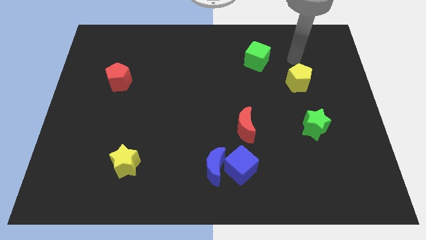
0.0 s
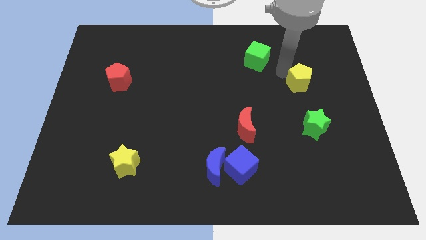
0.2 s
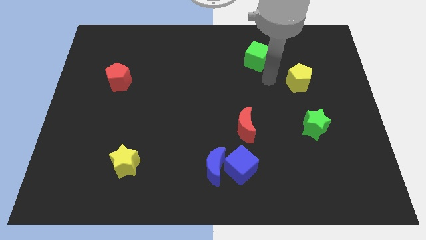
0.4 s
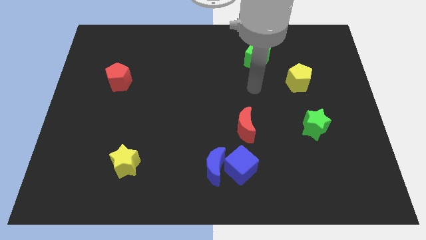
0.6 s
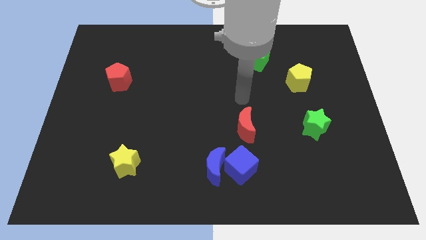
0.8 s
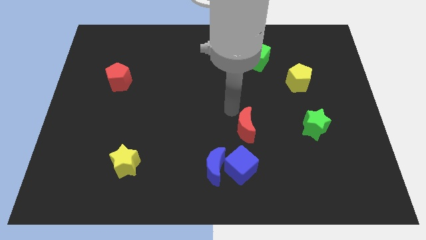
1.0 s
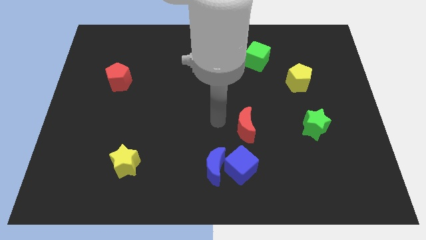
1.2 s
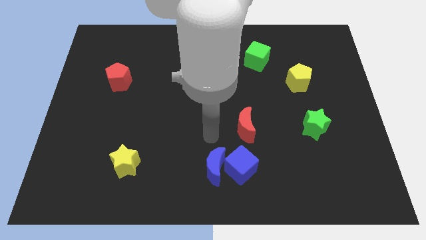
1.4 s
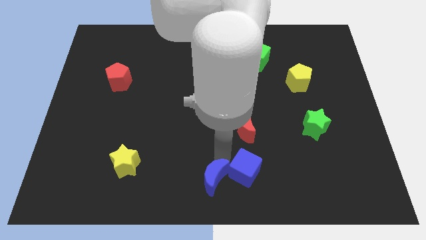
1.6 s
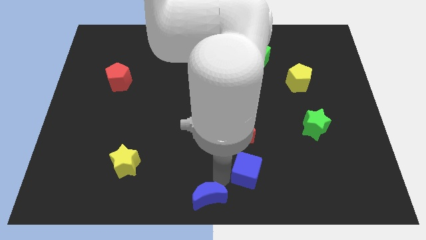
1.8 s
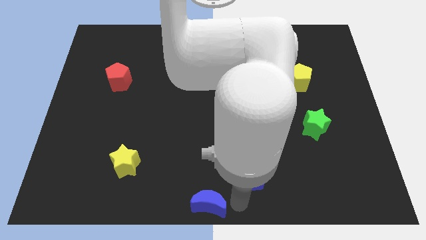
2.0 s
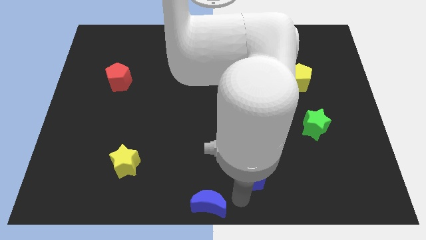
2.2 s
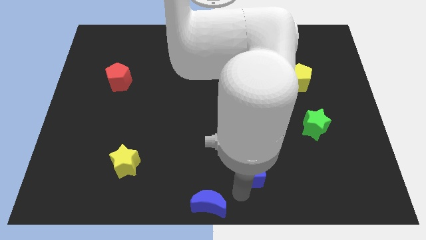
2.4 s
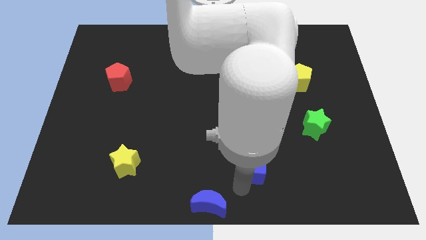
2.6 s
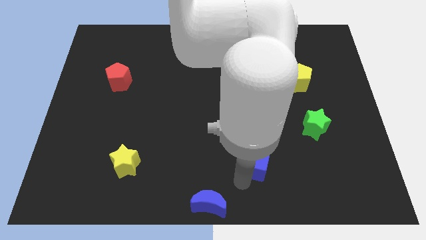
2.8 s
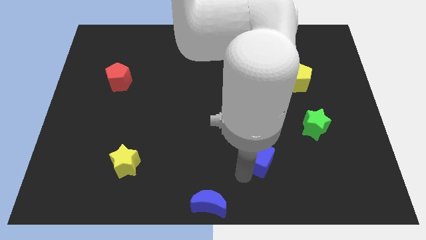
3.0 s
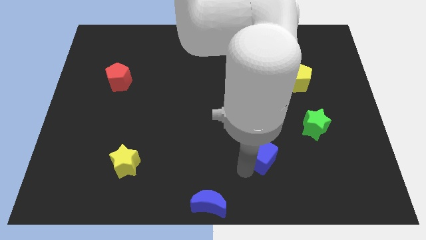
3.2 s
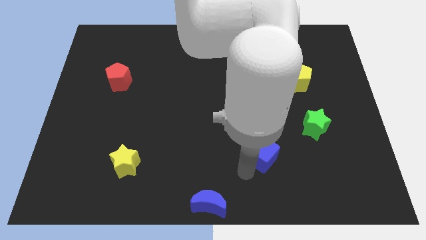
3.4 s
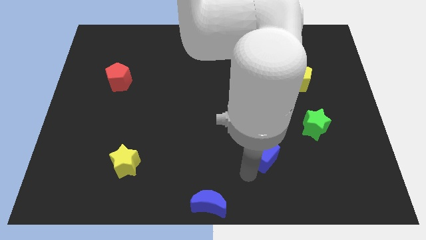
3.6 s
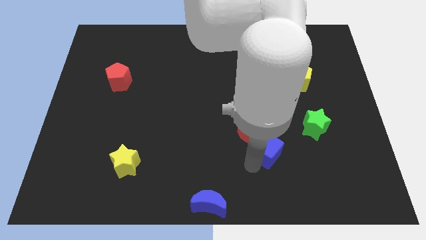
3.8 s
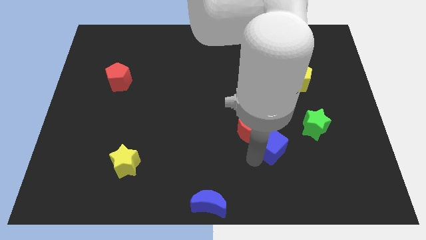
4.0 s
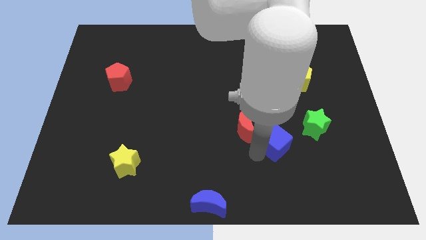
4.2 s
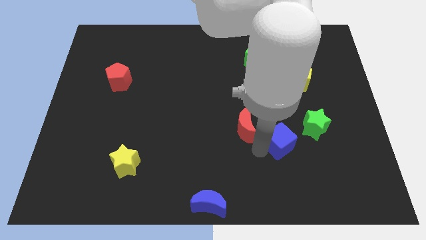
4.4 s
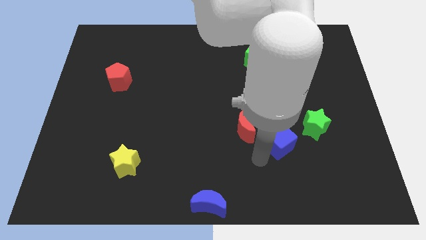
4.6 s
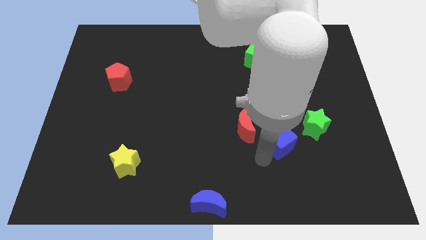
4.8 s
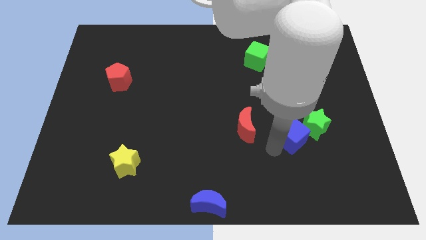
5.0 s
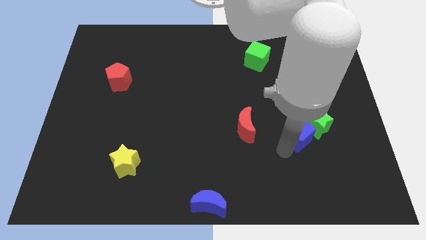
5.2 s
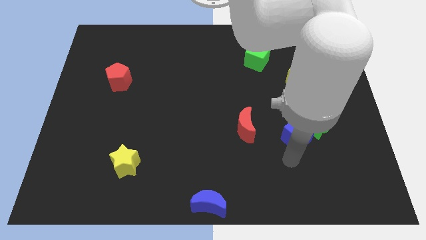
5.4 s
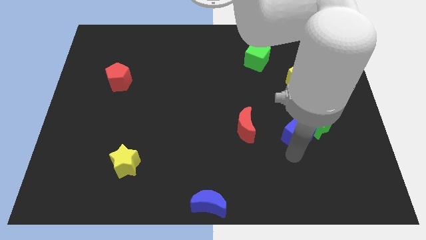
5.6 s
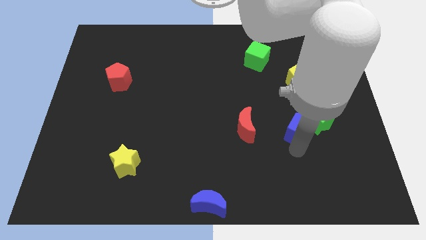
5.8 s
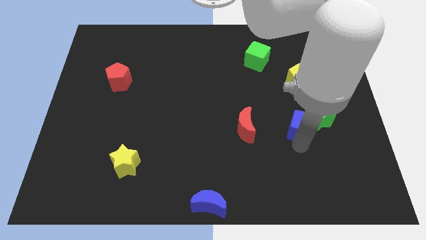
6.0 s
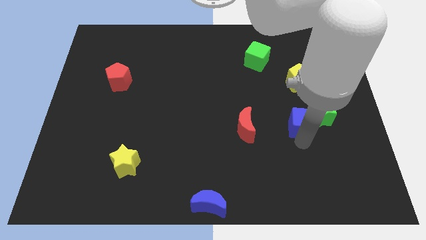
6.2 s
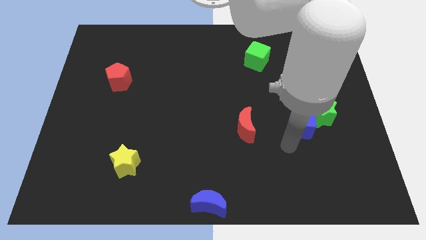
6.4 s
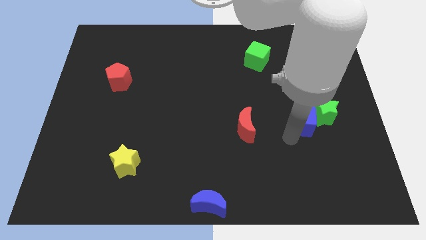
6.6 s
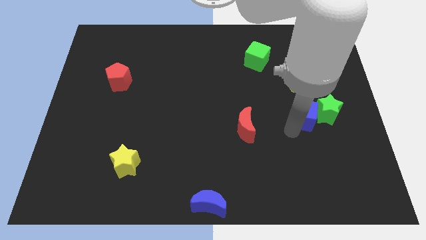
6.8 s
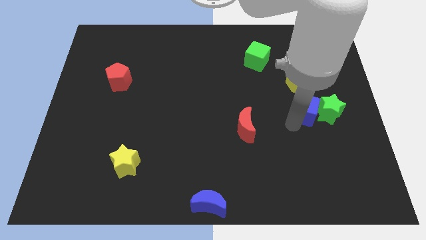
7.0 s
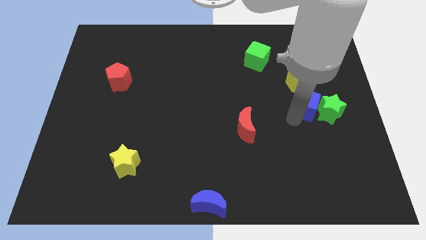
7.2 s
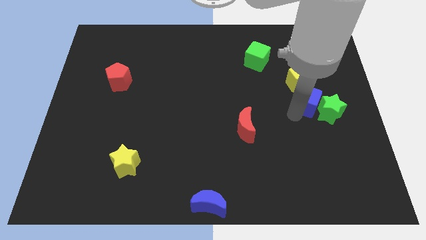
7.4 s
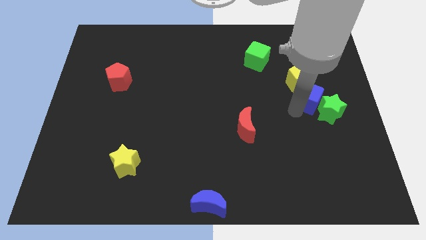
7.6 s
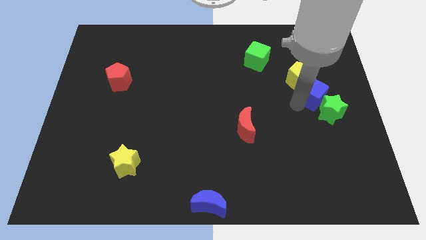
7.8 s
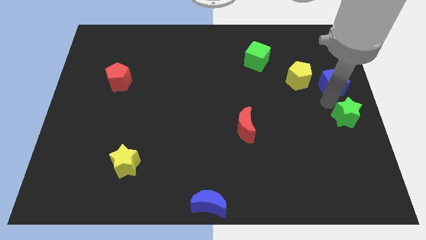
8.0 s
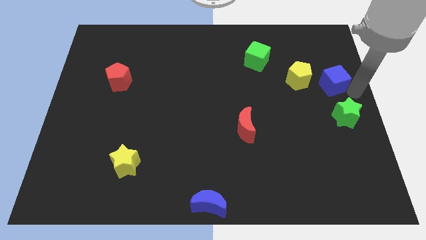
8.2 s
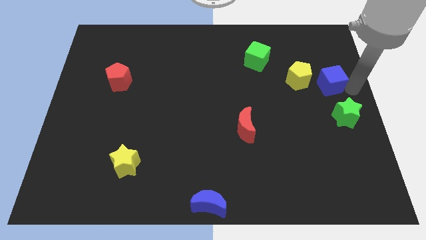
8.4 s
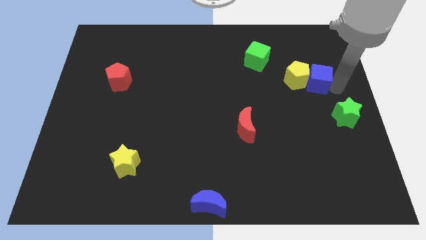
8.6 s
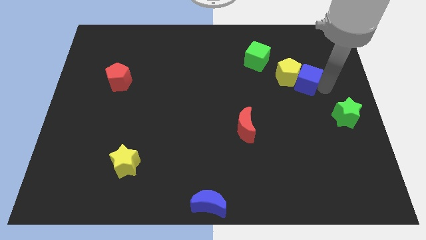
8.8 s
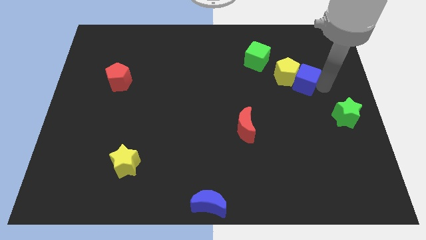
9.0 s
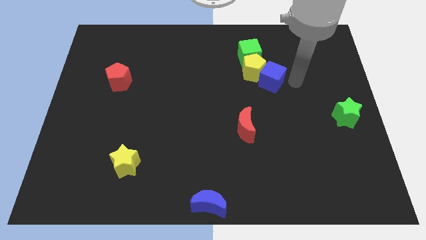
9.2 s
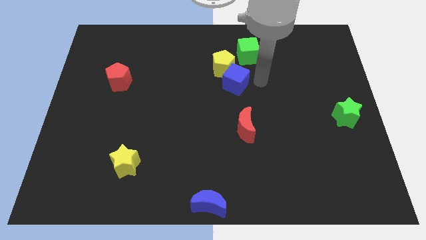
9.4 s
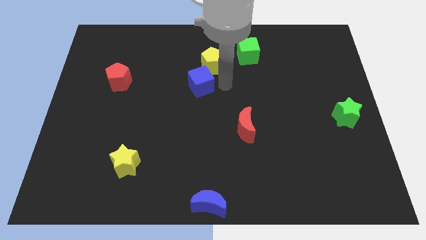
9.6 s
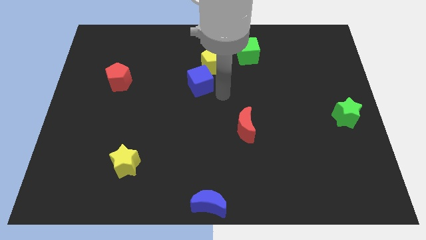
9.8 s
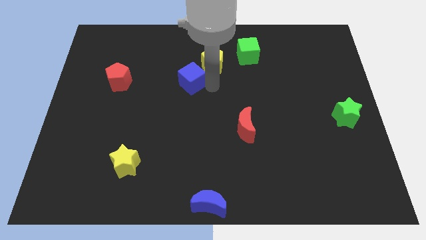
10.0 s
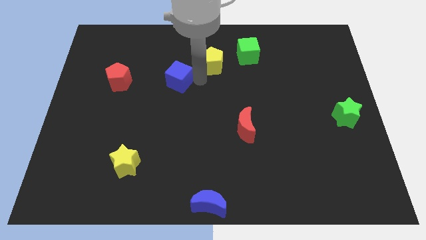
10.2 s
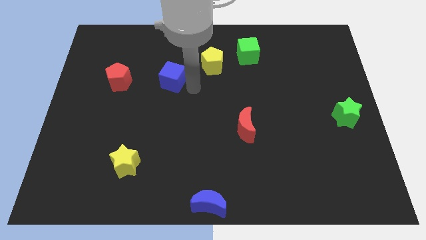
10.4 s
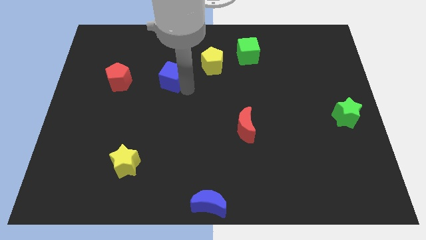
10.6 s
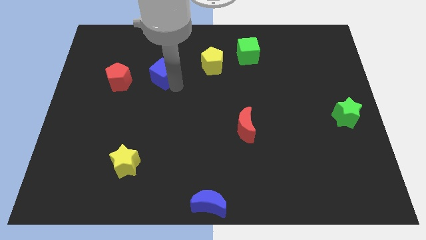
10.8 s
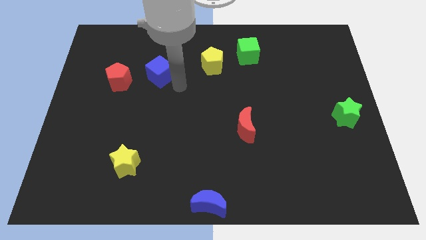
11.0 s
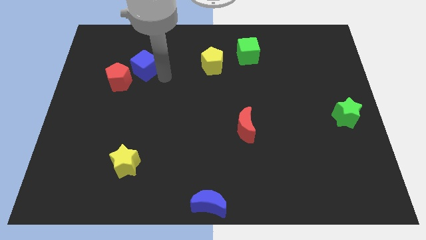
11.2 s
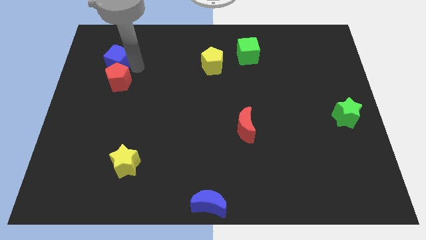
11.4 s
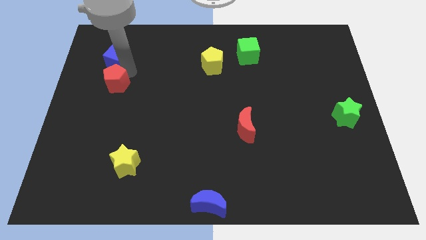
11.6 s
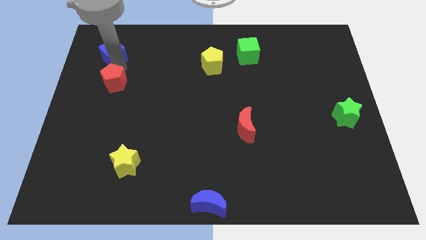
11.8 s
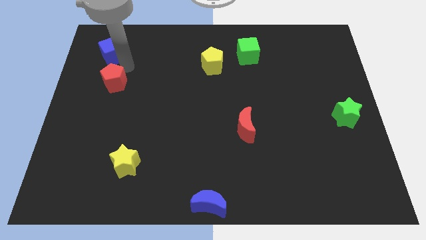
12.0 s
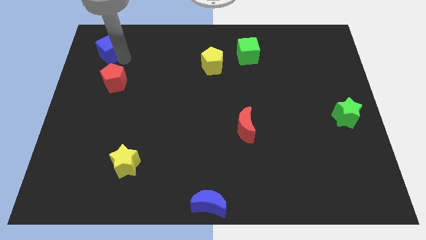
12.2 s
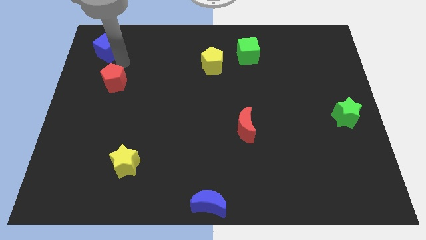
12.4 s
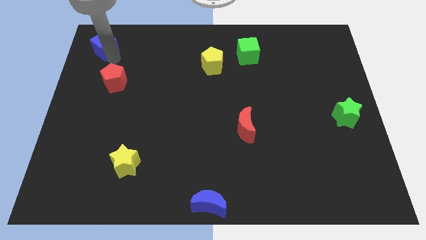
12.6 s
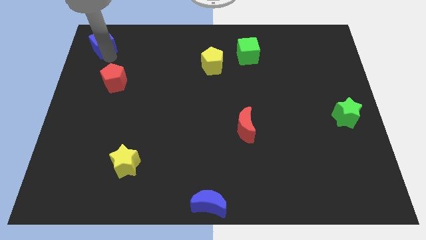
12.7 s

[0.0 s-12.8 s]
push the blue cube to the upper left corner
